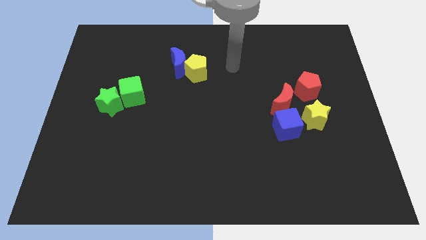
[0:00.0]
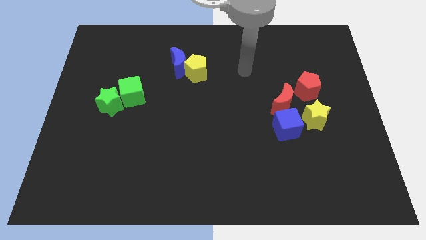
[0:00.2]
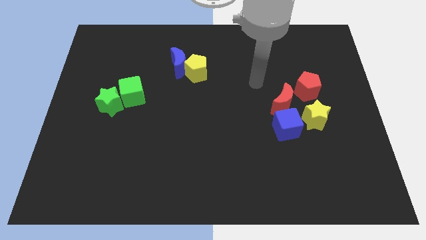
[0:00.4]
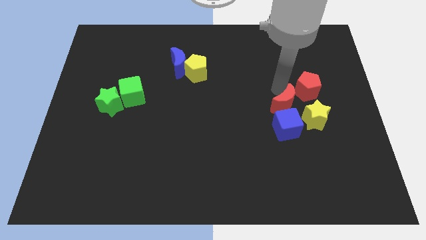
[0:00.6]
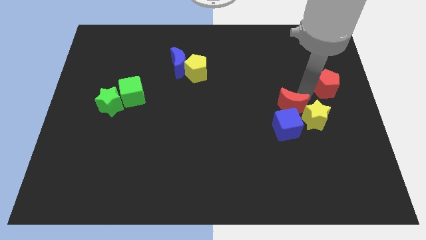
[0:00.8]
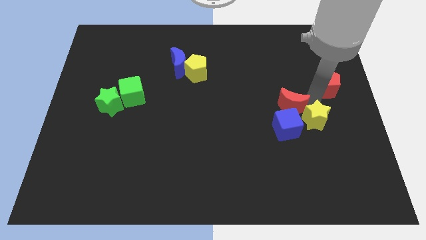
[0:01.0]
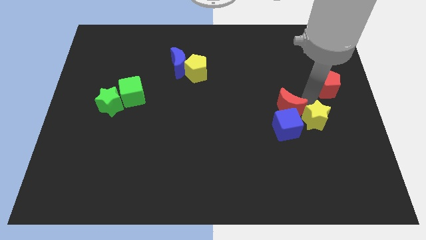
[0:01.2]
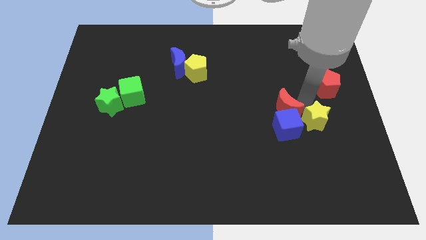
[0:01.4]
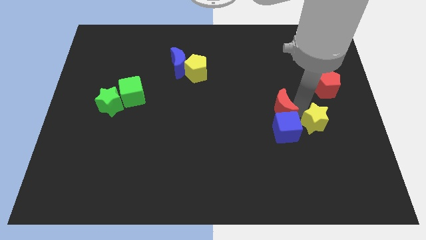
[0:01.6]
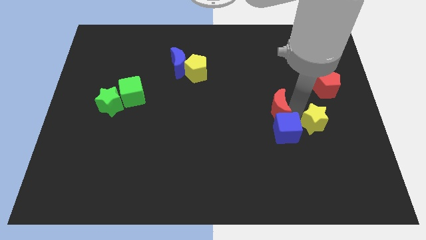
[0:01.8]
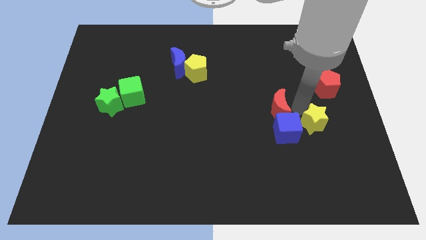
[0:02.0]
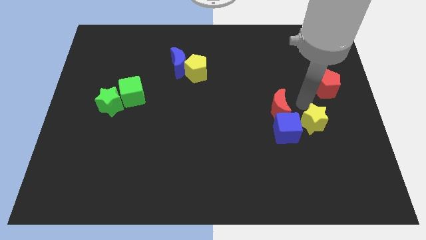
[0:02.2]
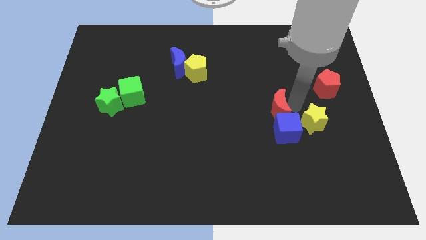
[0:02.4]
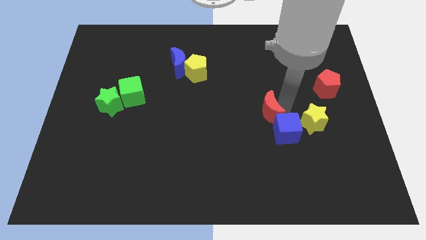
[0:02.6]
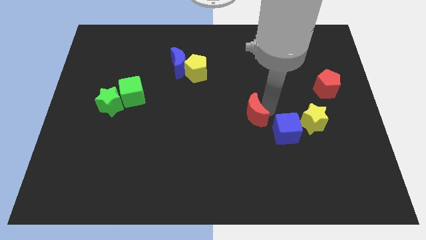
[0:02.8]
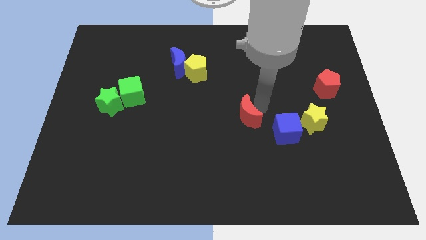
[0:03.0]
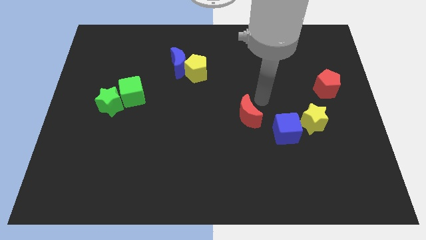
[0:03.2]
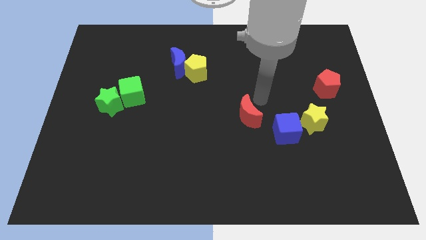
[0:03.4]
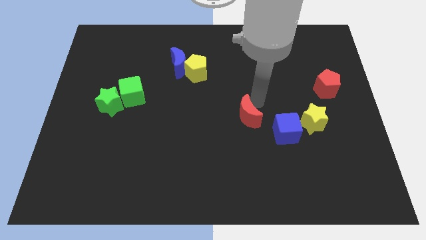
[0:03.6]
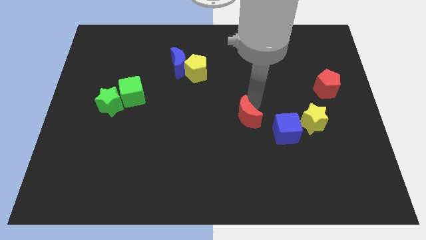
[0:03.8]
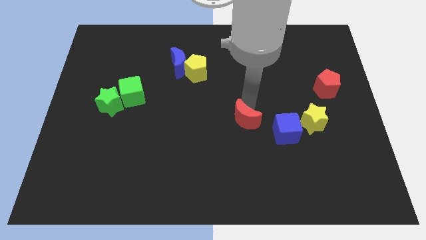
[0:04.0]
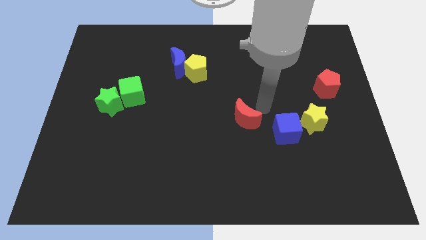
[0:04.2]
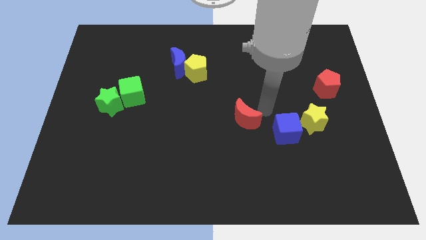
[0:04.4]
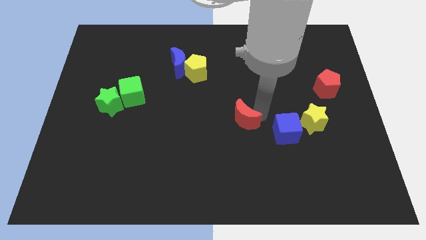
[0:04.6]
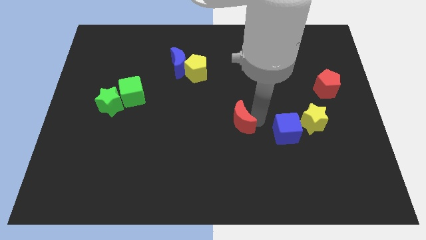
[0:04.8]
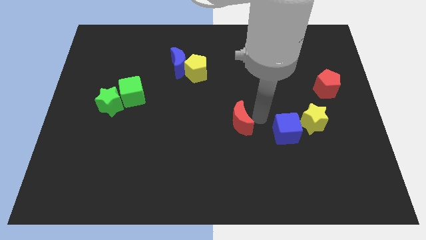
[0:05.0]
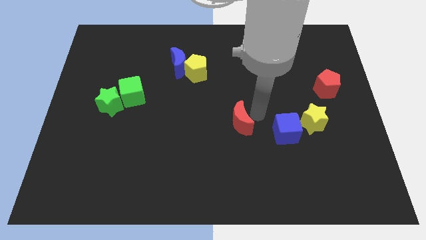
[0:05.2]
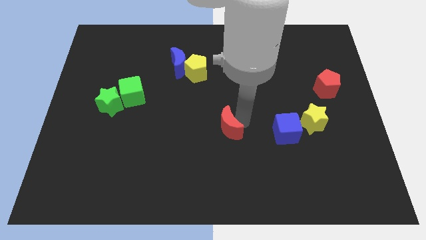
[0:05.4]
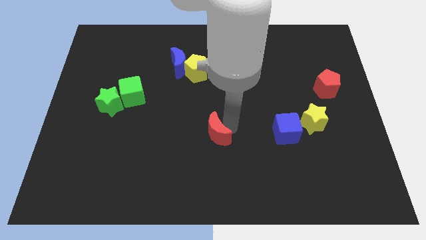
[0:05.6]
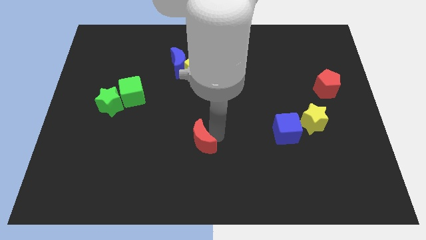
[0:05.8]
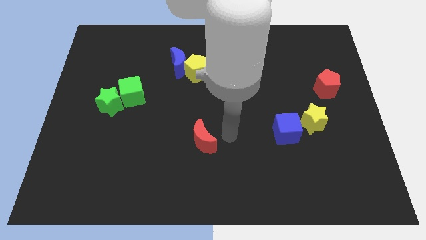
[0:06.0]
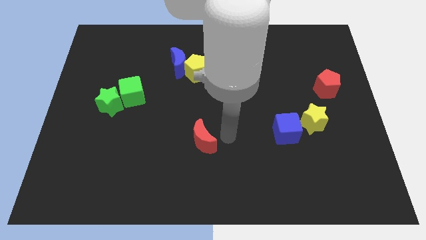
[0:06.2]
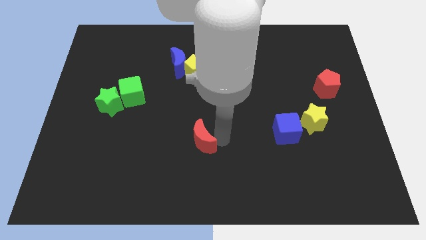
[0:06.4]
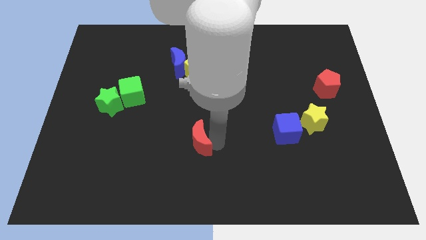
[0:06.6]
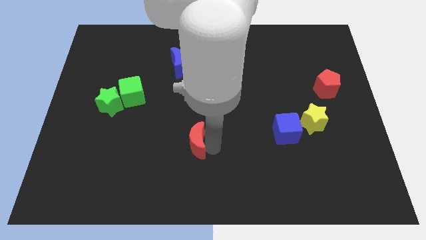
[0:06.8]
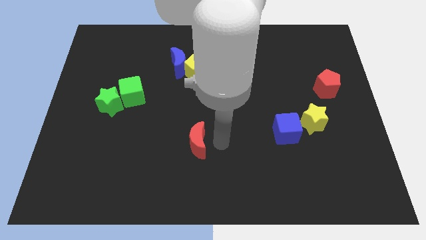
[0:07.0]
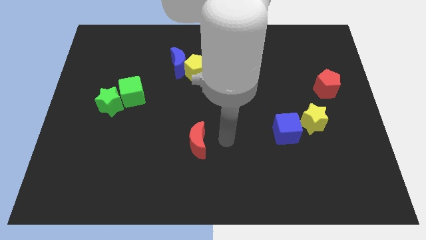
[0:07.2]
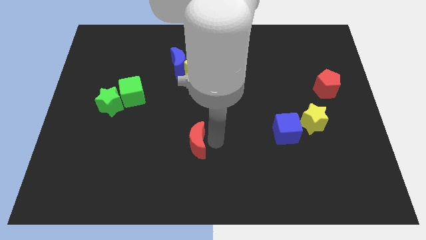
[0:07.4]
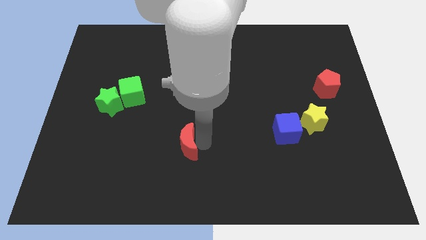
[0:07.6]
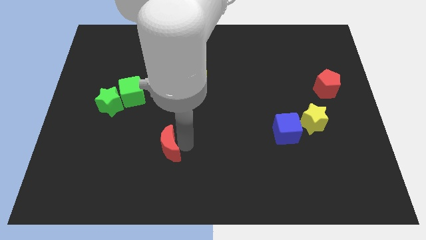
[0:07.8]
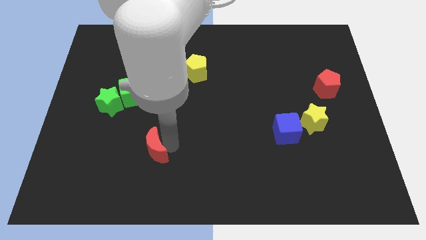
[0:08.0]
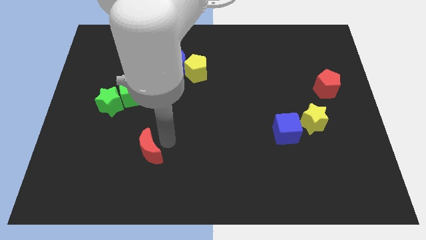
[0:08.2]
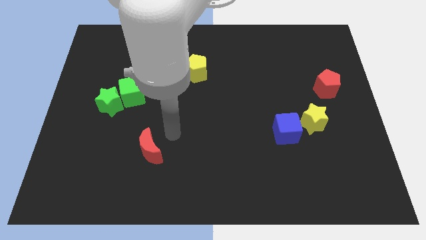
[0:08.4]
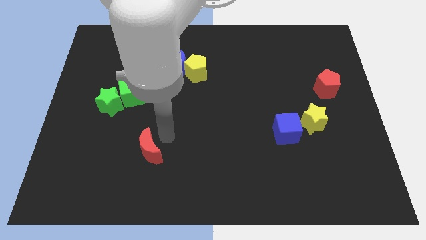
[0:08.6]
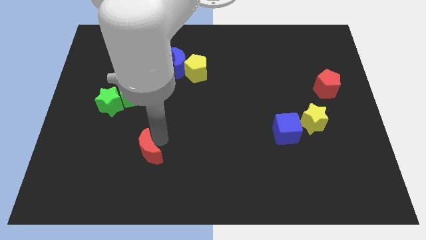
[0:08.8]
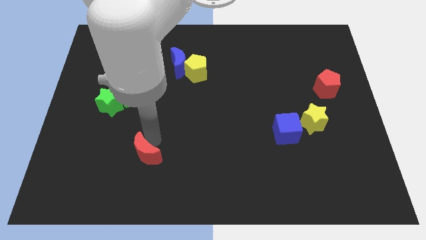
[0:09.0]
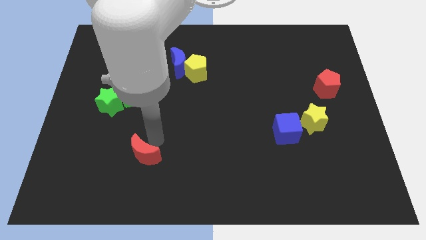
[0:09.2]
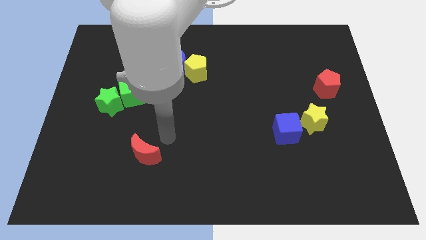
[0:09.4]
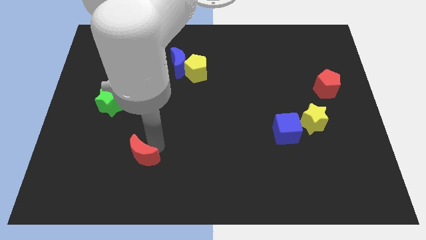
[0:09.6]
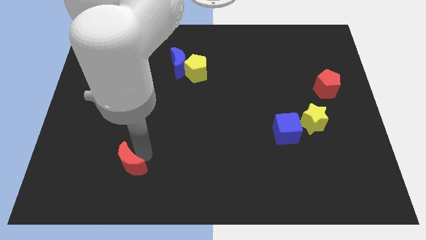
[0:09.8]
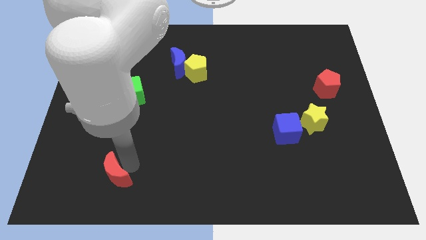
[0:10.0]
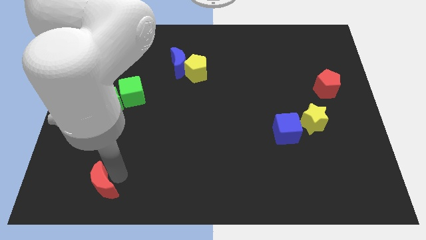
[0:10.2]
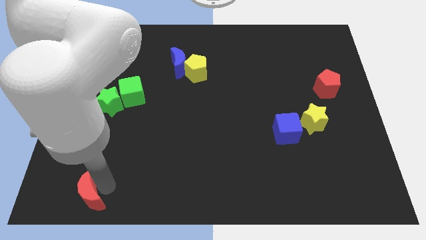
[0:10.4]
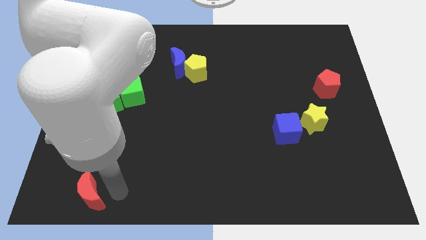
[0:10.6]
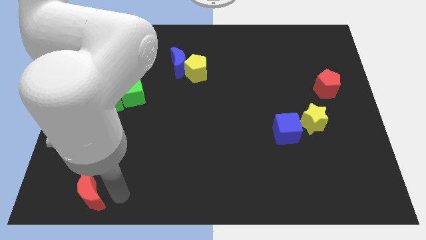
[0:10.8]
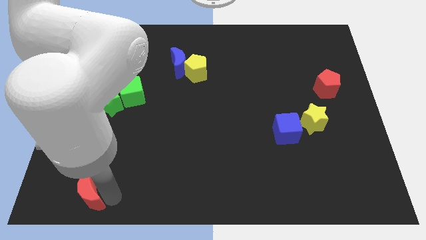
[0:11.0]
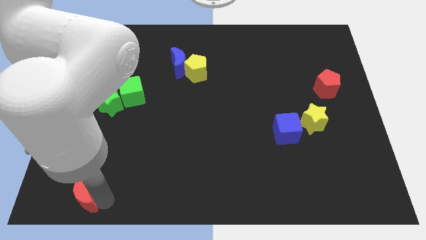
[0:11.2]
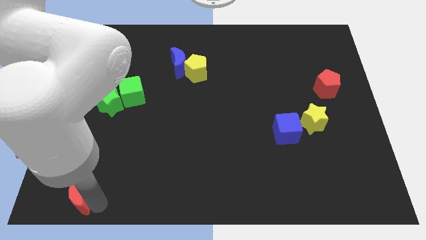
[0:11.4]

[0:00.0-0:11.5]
push the red moon to the bottom left

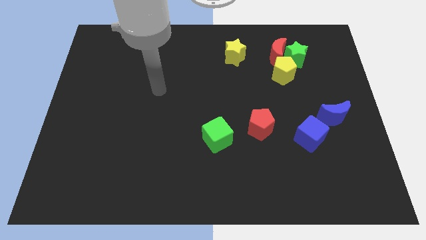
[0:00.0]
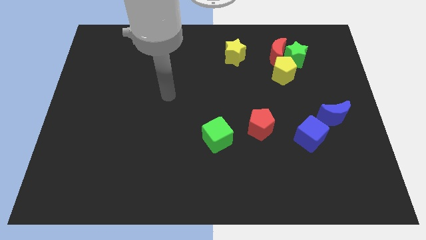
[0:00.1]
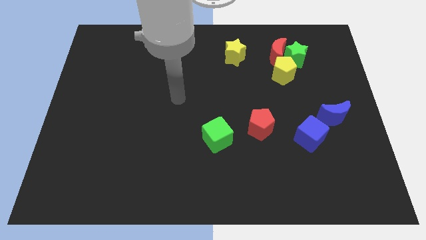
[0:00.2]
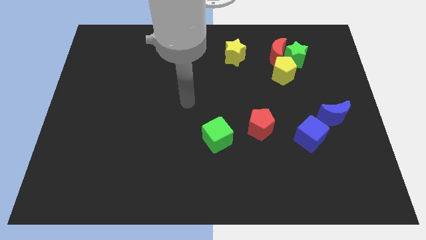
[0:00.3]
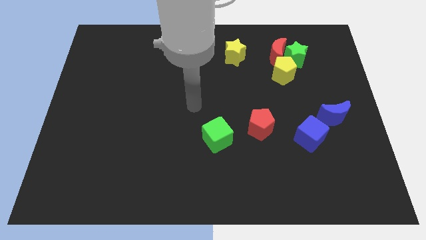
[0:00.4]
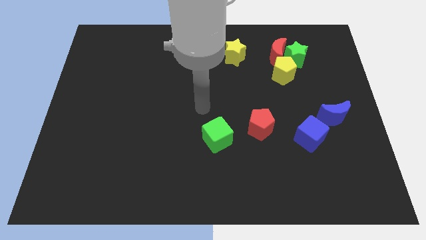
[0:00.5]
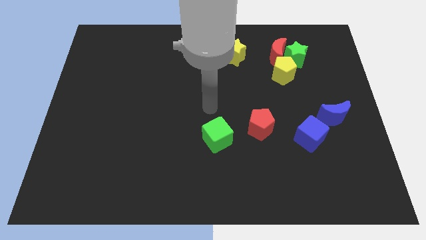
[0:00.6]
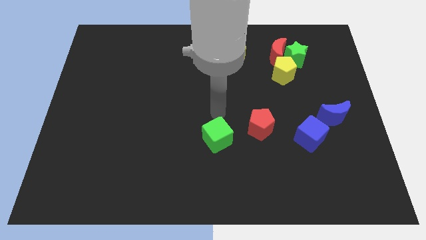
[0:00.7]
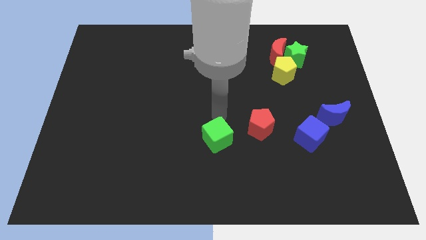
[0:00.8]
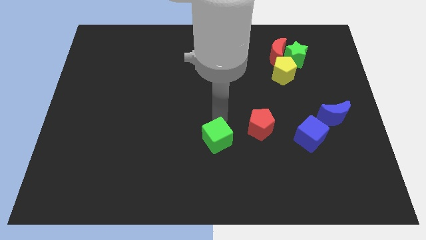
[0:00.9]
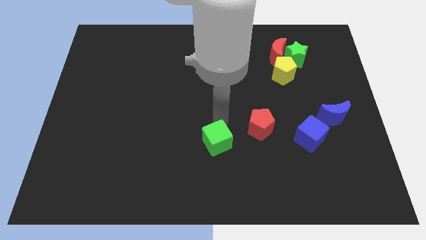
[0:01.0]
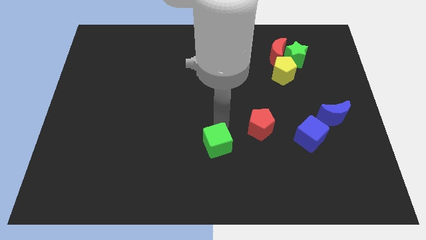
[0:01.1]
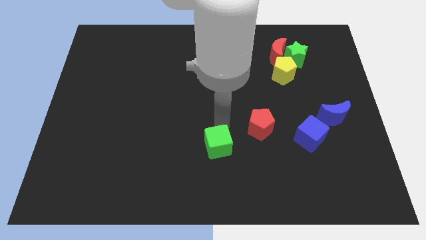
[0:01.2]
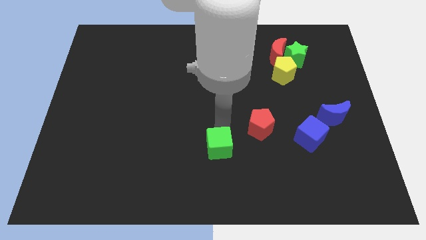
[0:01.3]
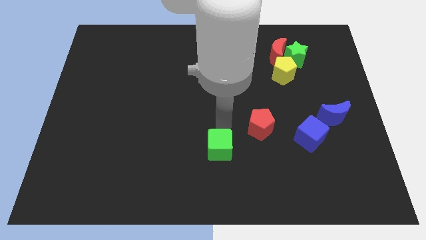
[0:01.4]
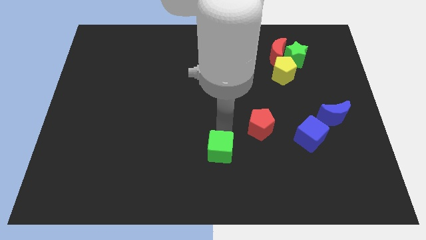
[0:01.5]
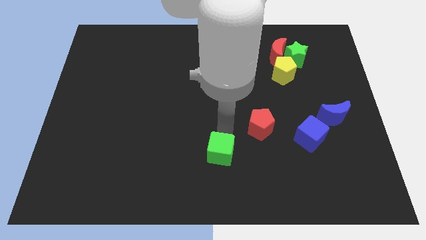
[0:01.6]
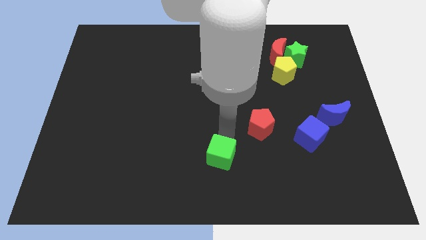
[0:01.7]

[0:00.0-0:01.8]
push the green cube to the bottom side
